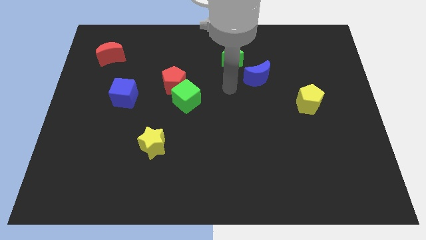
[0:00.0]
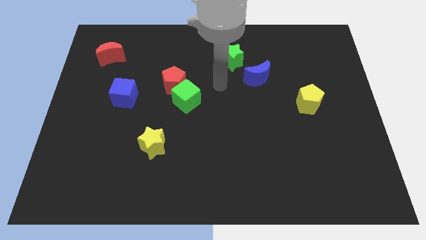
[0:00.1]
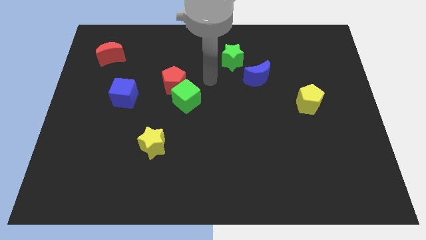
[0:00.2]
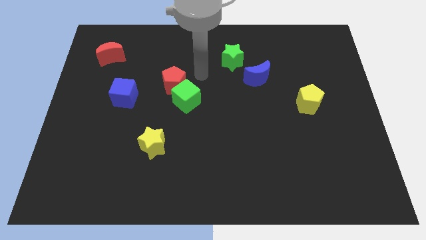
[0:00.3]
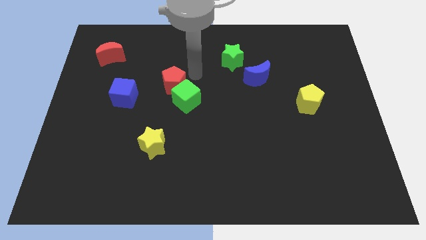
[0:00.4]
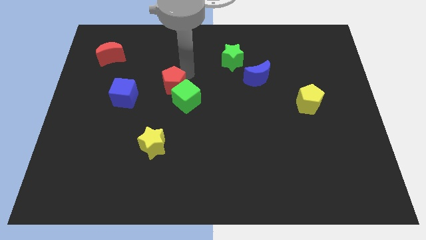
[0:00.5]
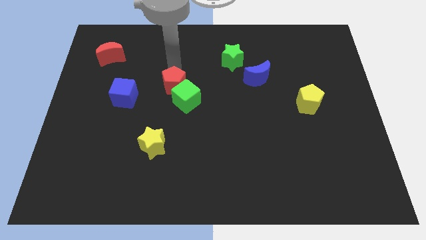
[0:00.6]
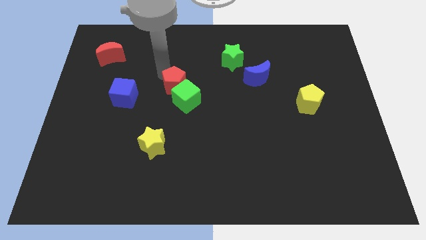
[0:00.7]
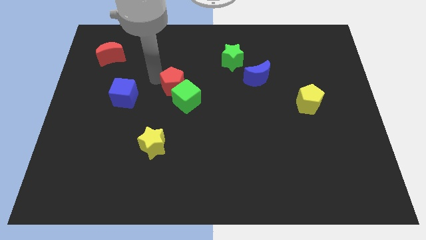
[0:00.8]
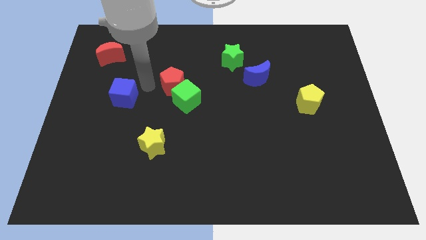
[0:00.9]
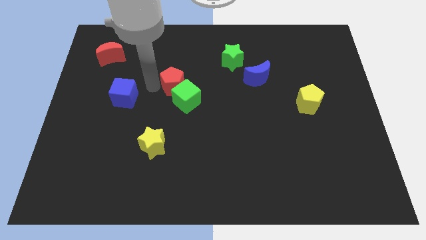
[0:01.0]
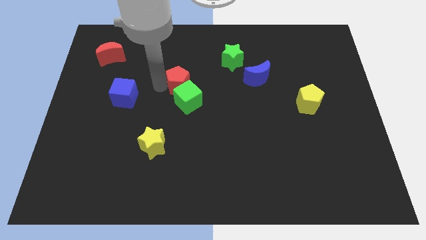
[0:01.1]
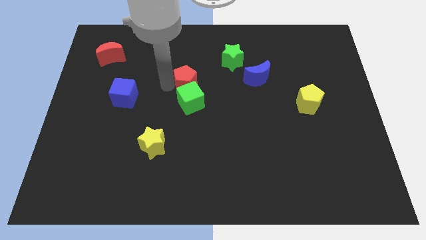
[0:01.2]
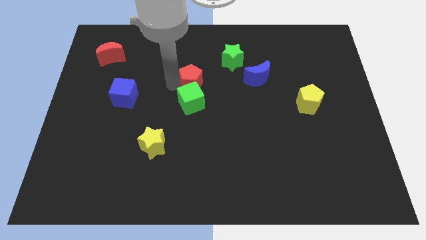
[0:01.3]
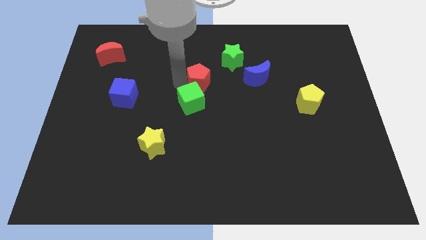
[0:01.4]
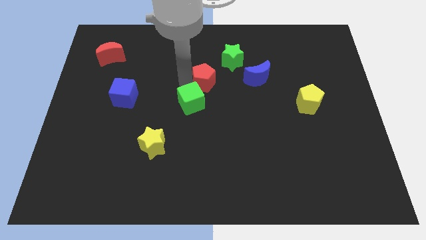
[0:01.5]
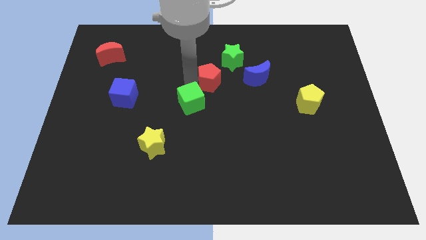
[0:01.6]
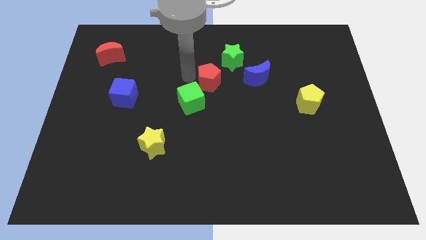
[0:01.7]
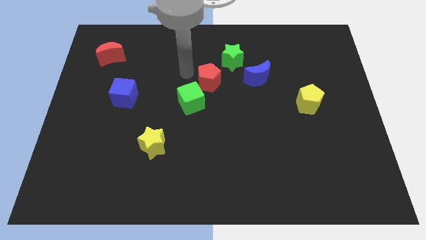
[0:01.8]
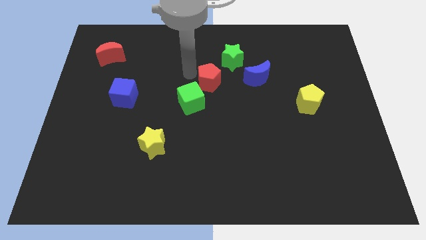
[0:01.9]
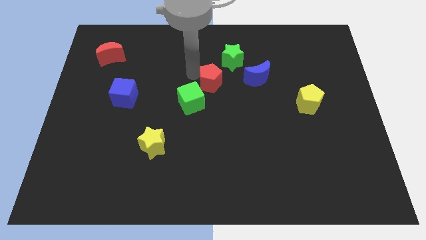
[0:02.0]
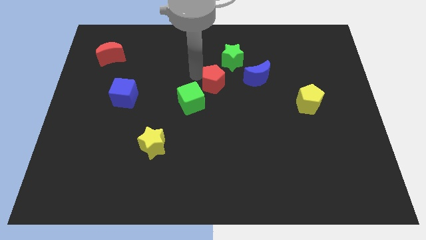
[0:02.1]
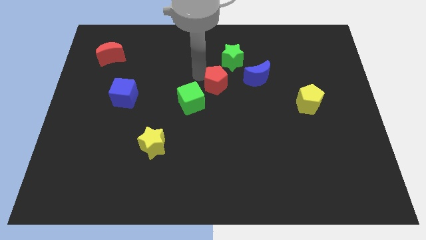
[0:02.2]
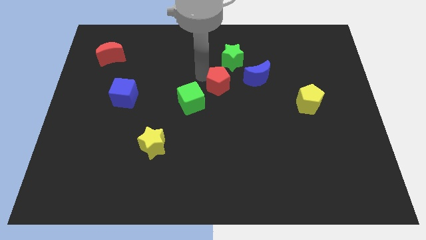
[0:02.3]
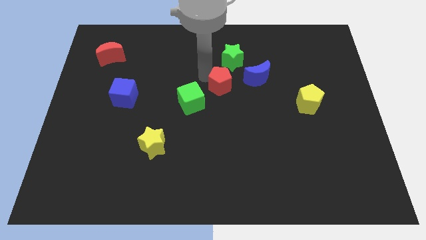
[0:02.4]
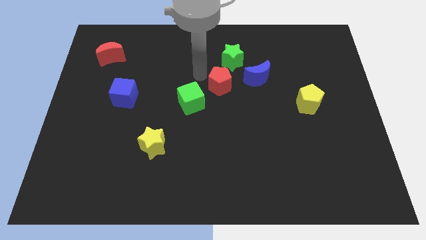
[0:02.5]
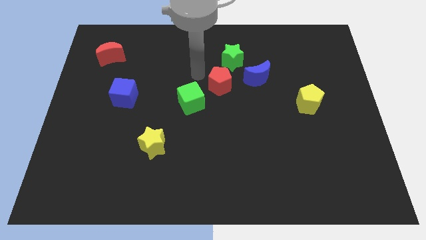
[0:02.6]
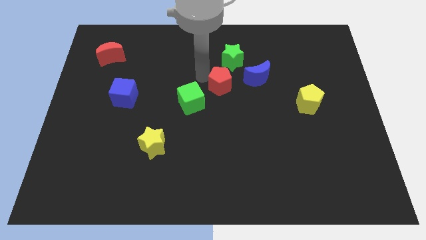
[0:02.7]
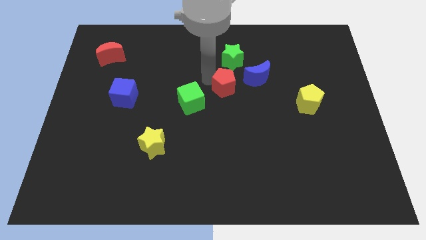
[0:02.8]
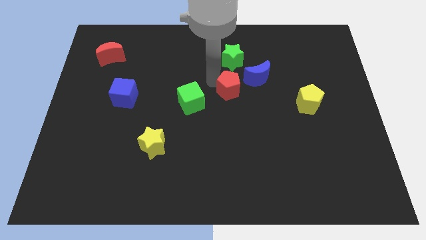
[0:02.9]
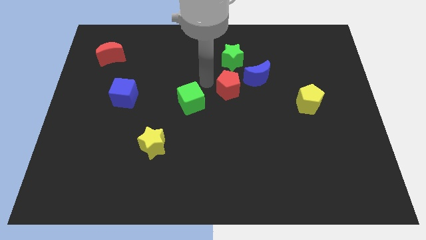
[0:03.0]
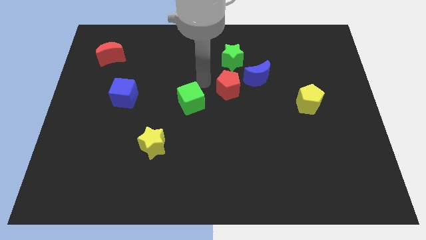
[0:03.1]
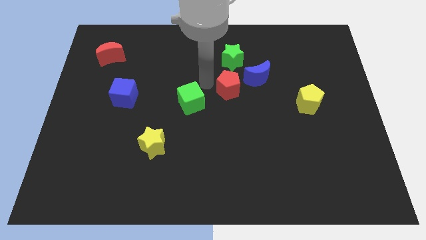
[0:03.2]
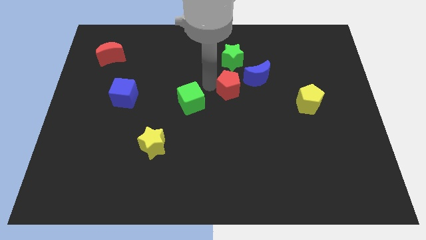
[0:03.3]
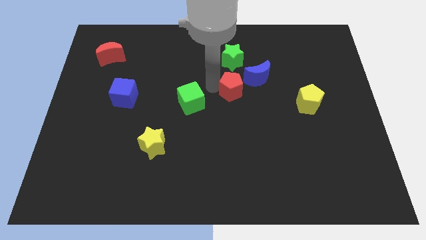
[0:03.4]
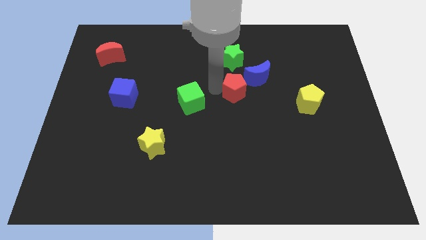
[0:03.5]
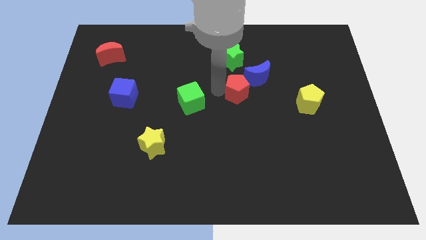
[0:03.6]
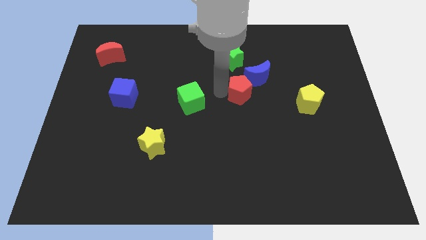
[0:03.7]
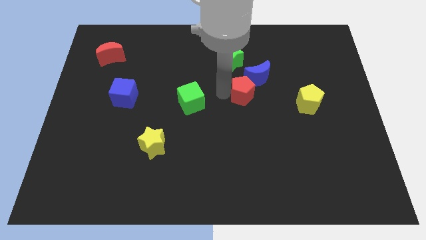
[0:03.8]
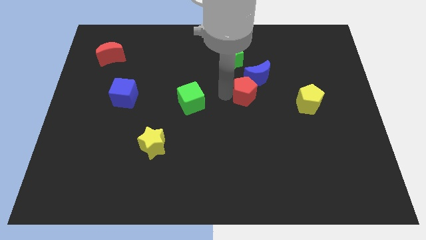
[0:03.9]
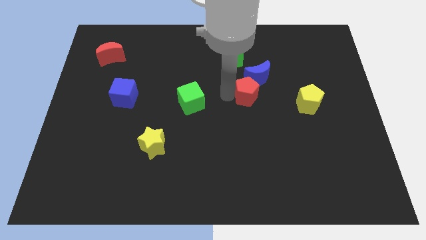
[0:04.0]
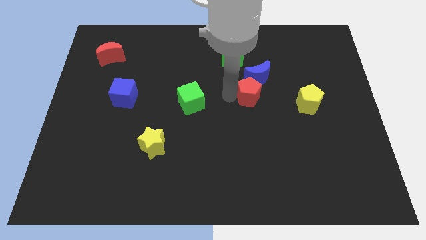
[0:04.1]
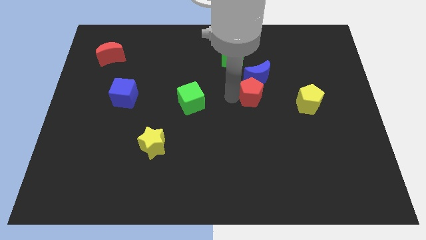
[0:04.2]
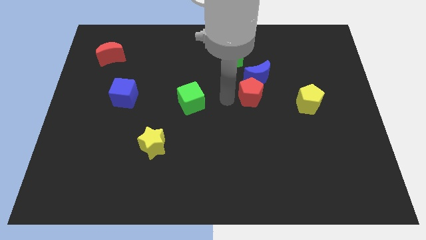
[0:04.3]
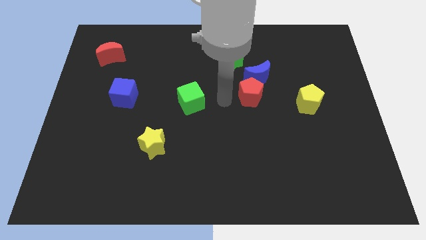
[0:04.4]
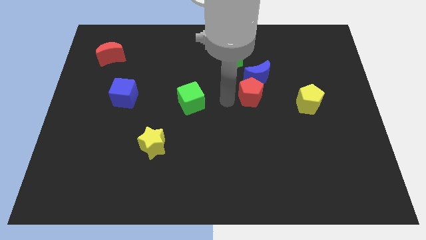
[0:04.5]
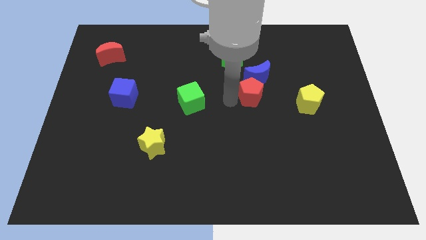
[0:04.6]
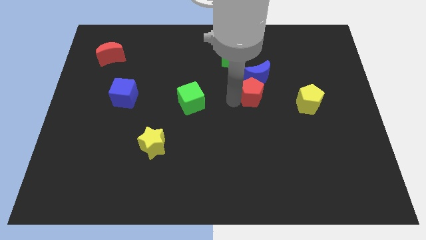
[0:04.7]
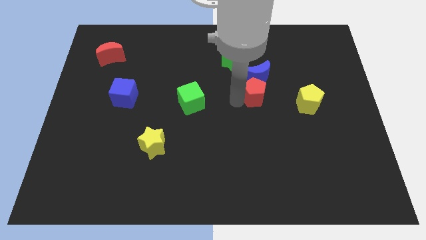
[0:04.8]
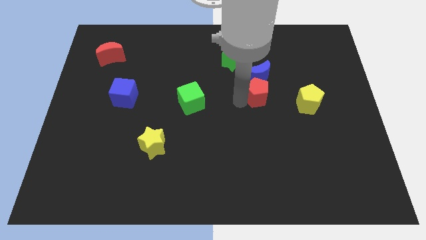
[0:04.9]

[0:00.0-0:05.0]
push the red pentagon to the right

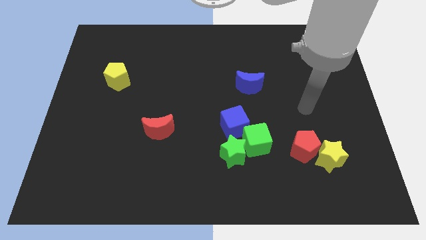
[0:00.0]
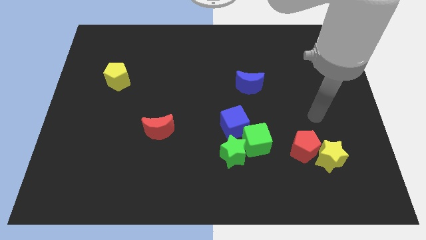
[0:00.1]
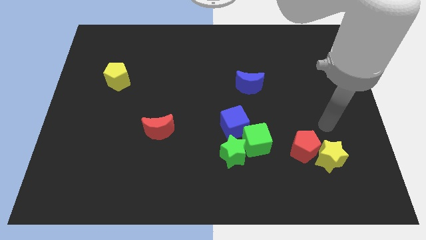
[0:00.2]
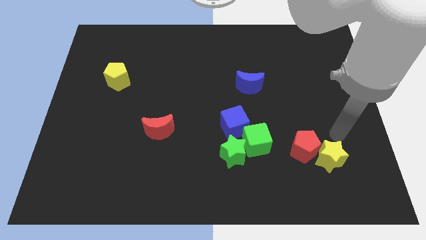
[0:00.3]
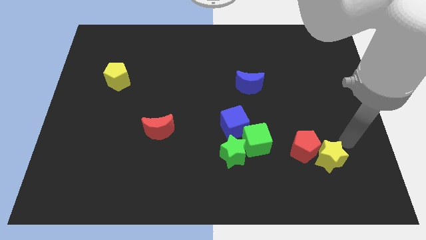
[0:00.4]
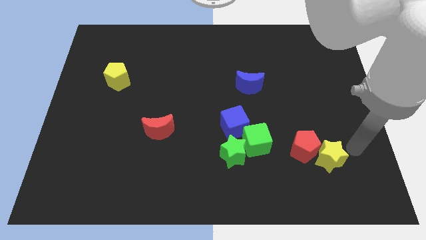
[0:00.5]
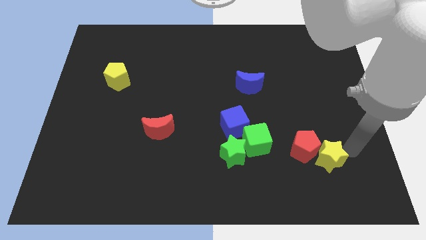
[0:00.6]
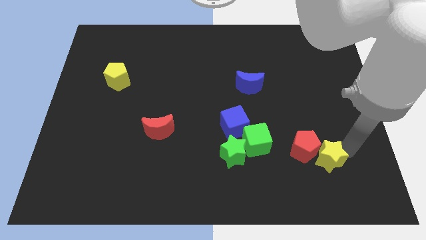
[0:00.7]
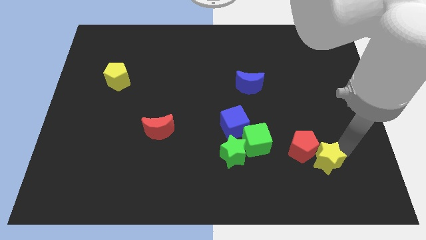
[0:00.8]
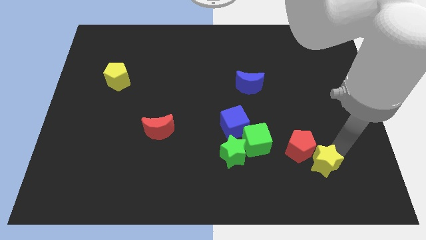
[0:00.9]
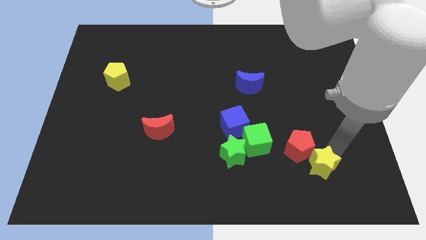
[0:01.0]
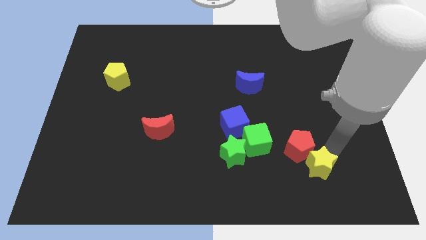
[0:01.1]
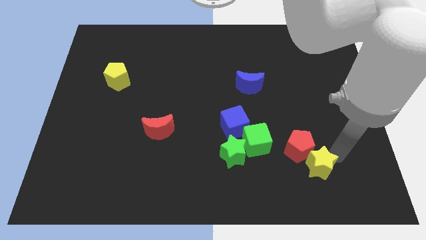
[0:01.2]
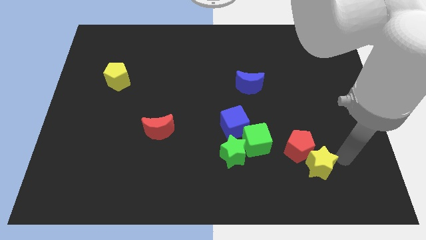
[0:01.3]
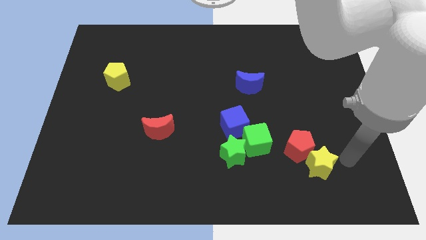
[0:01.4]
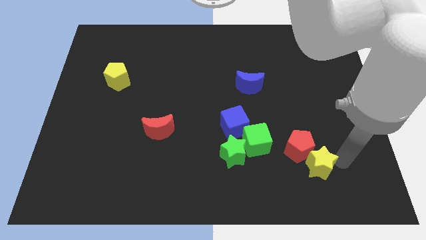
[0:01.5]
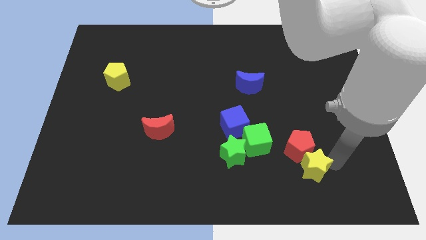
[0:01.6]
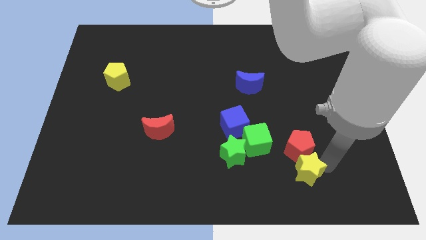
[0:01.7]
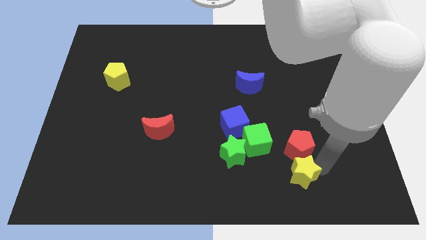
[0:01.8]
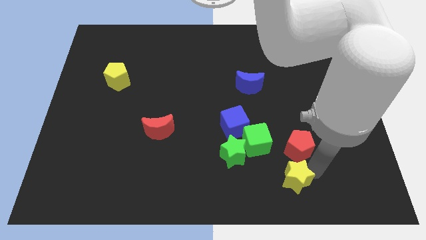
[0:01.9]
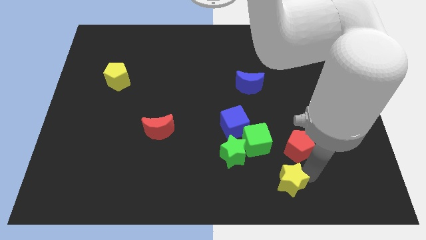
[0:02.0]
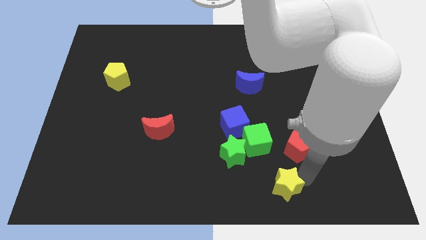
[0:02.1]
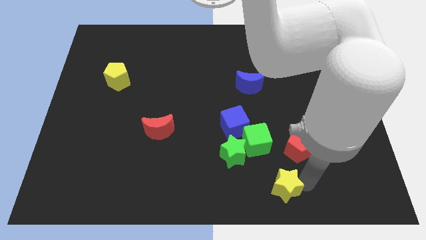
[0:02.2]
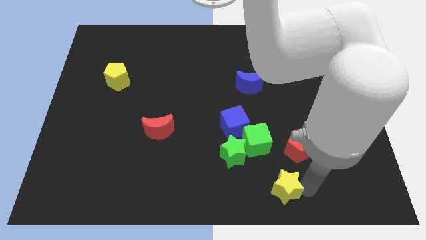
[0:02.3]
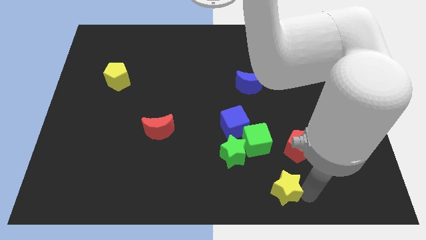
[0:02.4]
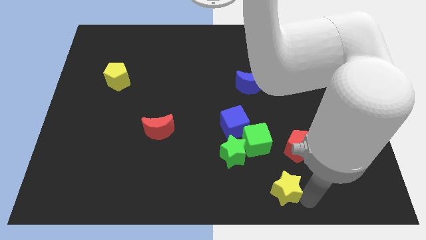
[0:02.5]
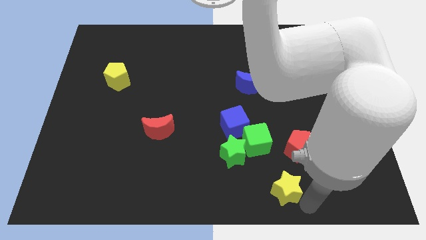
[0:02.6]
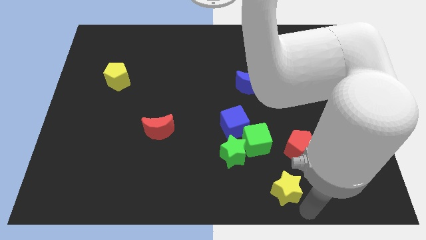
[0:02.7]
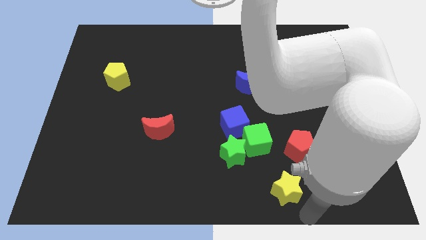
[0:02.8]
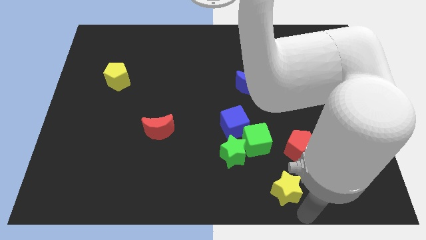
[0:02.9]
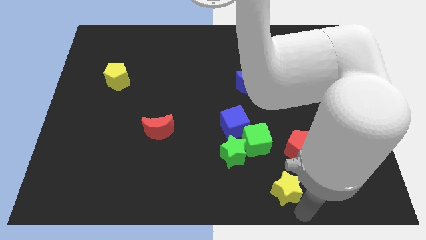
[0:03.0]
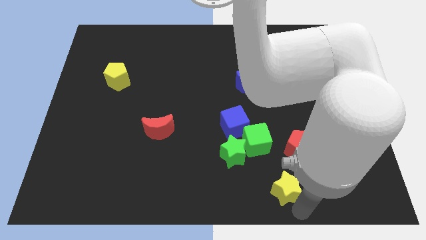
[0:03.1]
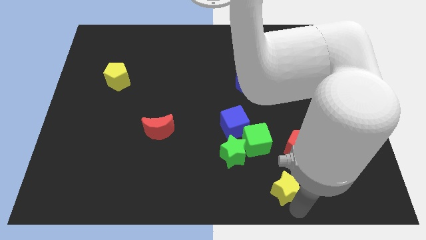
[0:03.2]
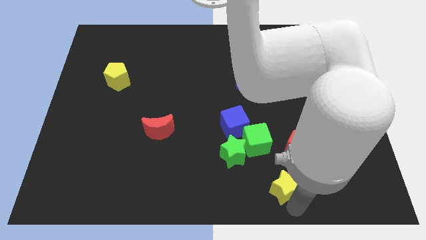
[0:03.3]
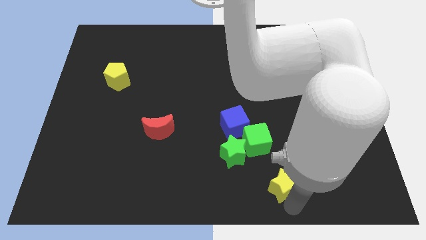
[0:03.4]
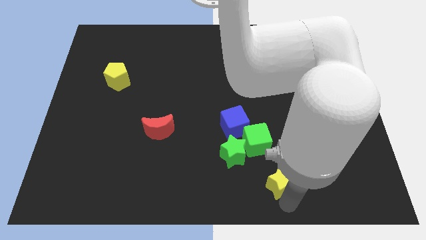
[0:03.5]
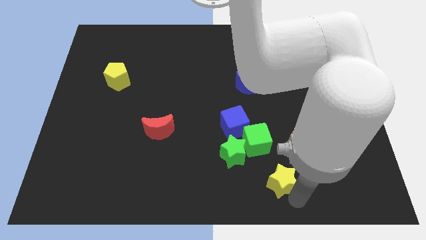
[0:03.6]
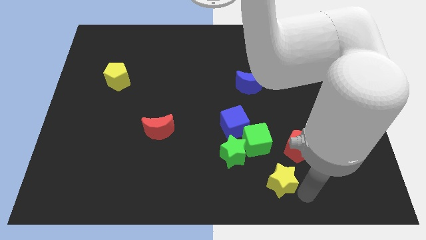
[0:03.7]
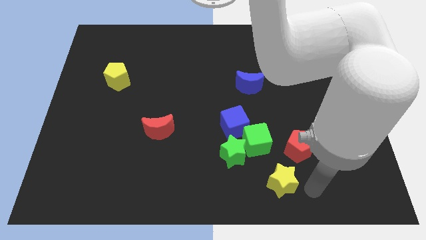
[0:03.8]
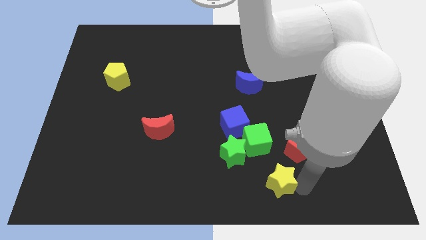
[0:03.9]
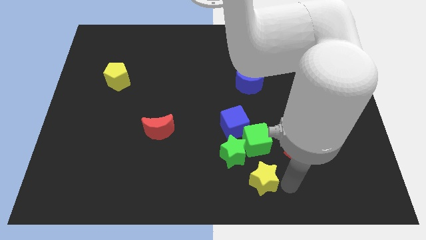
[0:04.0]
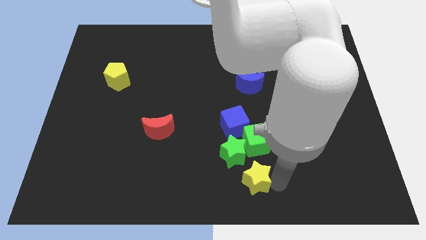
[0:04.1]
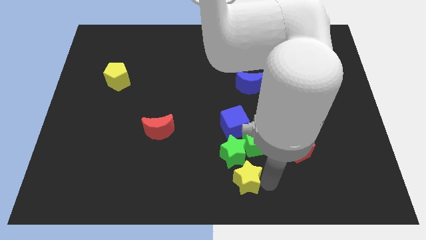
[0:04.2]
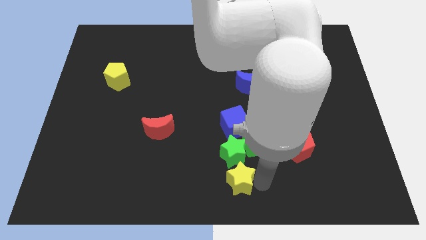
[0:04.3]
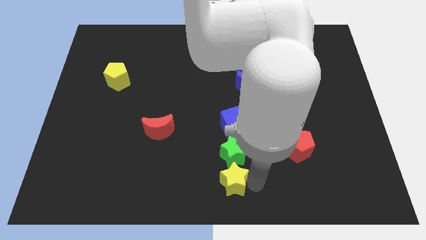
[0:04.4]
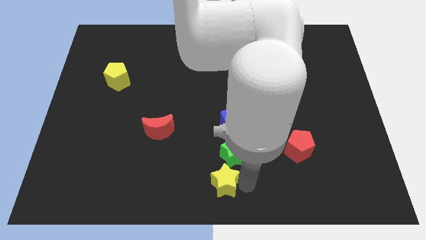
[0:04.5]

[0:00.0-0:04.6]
slide the yellow star to the left
